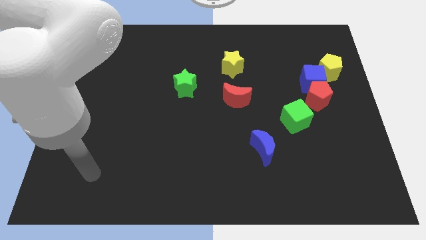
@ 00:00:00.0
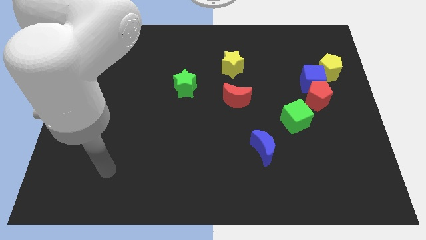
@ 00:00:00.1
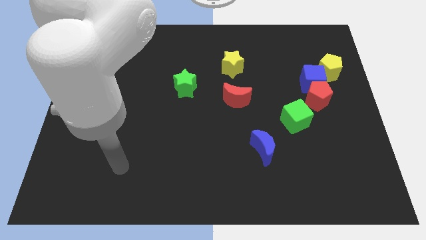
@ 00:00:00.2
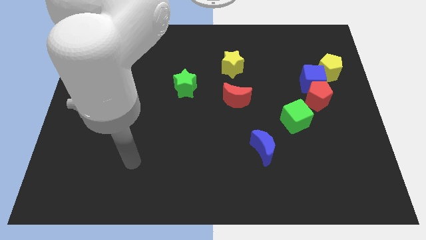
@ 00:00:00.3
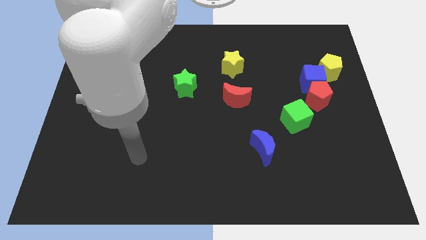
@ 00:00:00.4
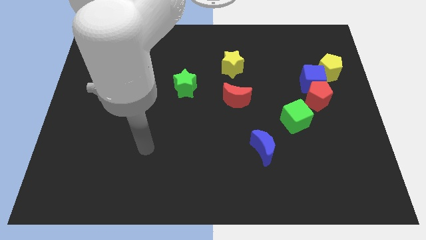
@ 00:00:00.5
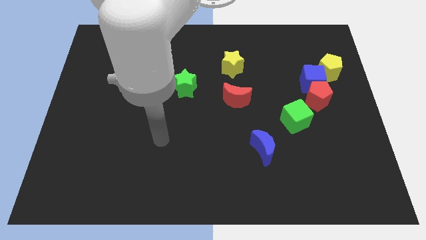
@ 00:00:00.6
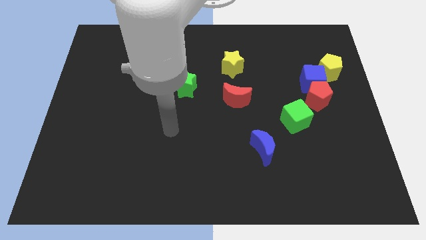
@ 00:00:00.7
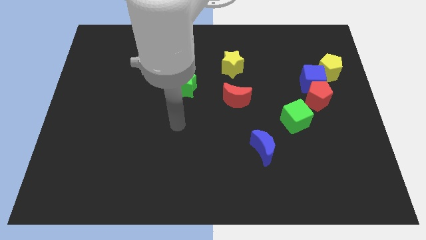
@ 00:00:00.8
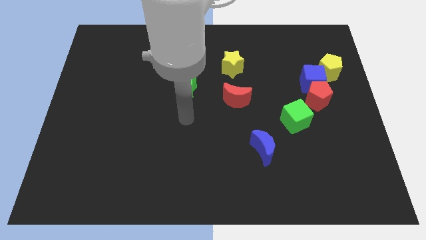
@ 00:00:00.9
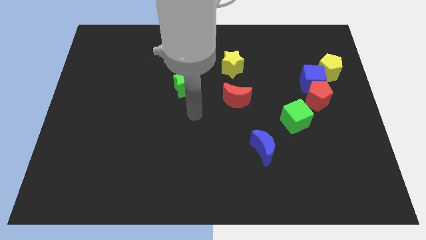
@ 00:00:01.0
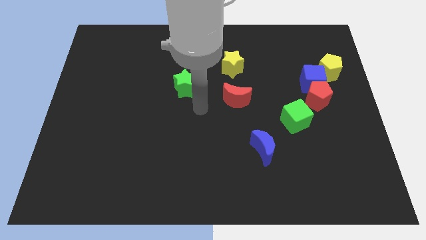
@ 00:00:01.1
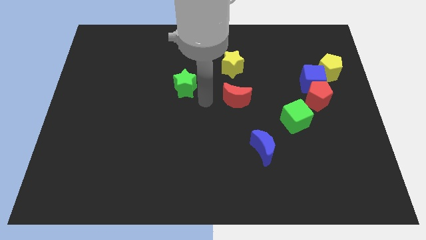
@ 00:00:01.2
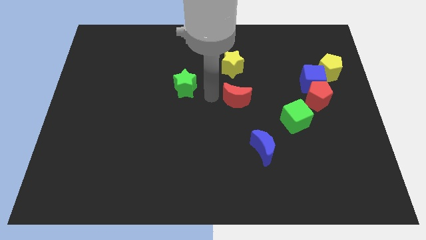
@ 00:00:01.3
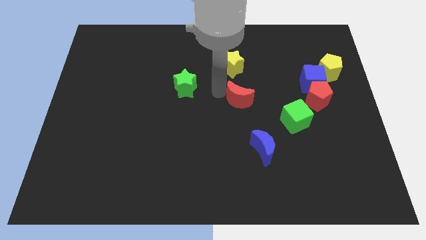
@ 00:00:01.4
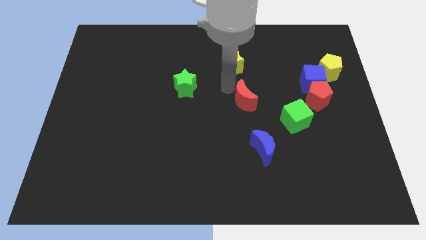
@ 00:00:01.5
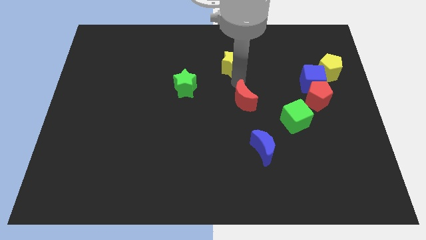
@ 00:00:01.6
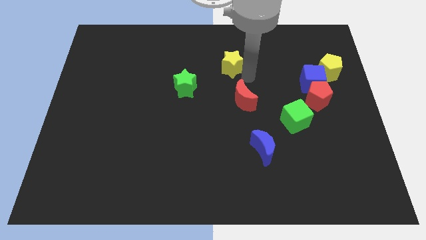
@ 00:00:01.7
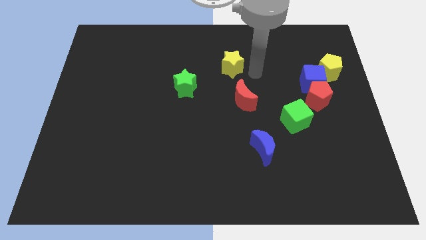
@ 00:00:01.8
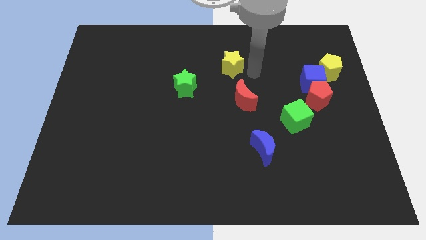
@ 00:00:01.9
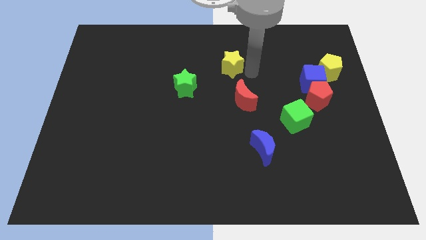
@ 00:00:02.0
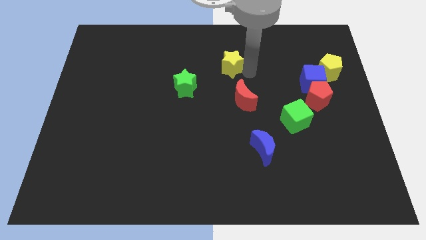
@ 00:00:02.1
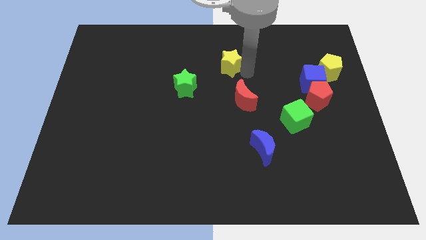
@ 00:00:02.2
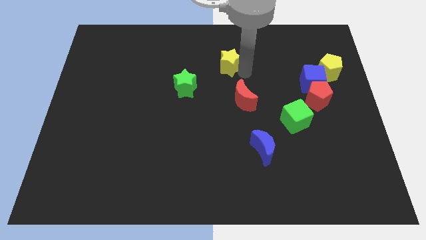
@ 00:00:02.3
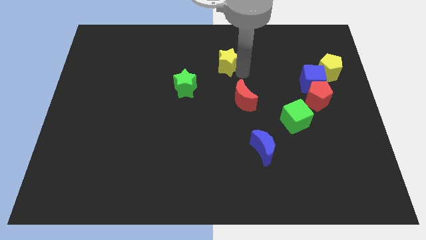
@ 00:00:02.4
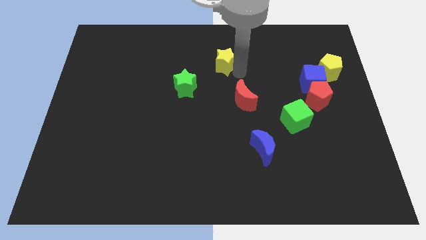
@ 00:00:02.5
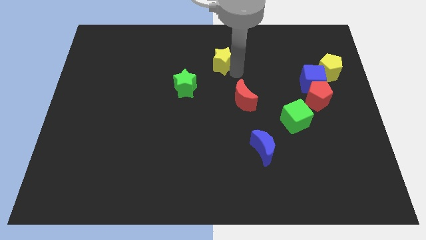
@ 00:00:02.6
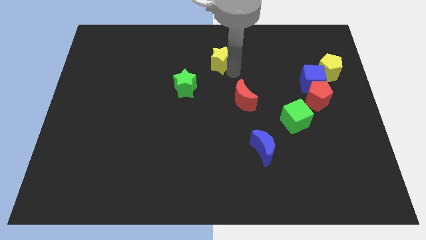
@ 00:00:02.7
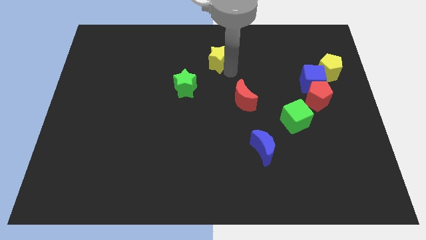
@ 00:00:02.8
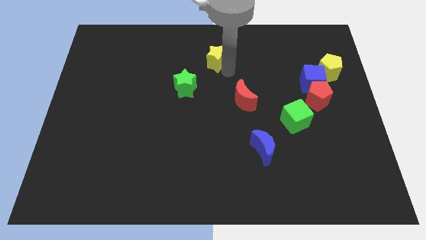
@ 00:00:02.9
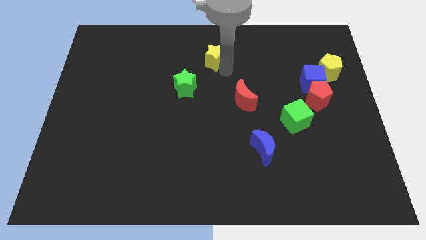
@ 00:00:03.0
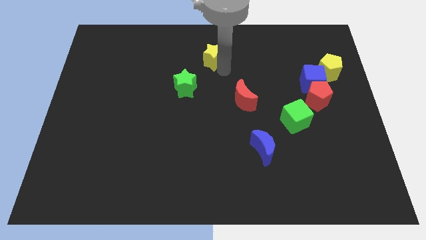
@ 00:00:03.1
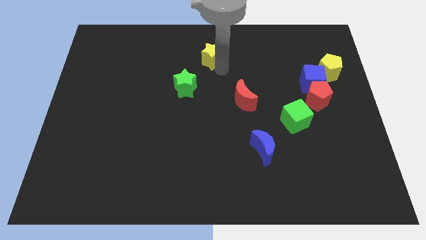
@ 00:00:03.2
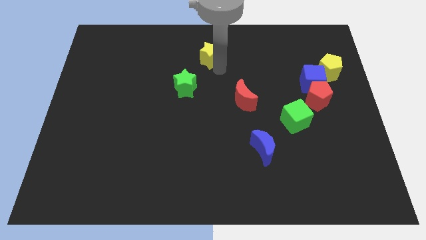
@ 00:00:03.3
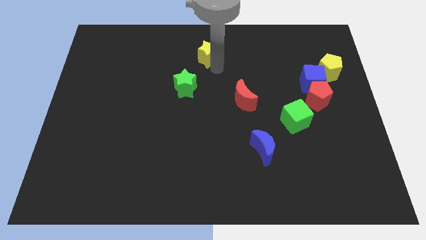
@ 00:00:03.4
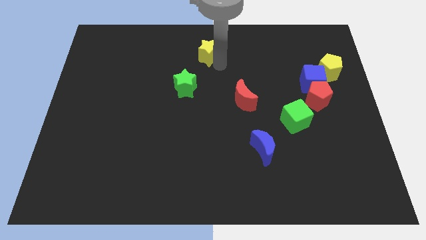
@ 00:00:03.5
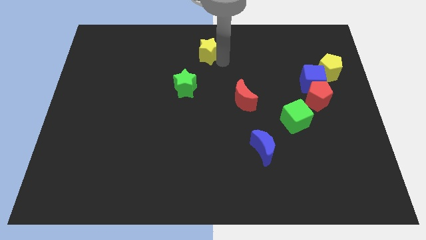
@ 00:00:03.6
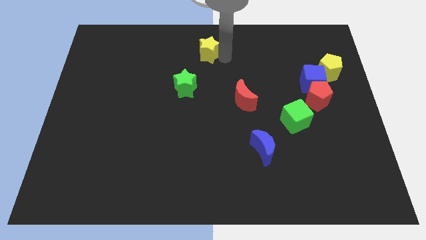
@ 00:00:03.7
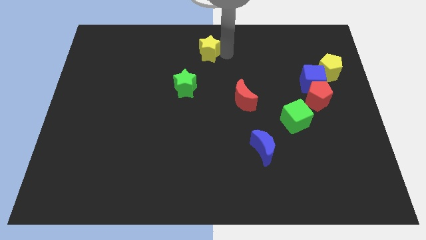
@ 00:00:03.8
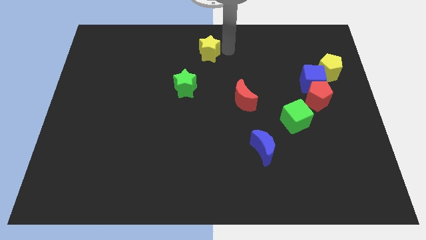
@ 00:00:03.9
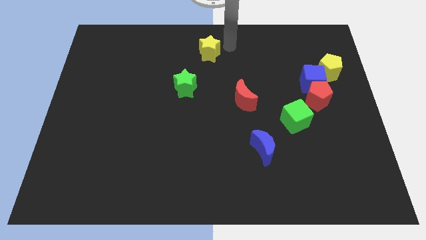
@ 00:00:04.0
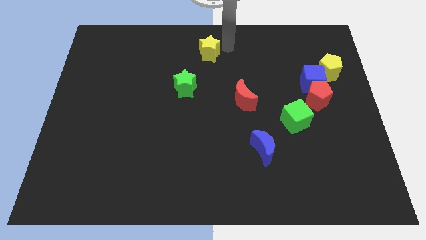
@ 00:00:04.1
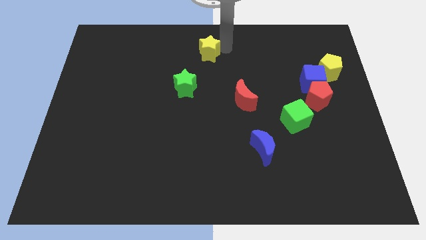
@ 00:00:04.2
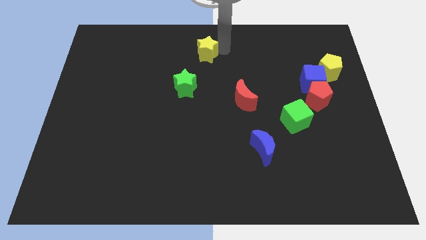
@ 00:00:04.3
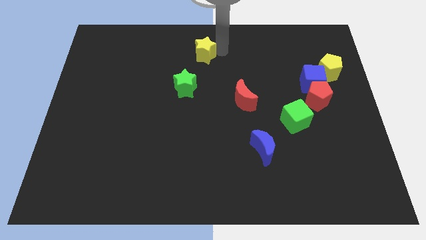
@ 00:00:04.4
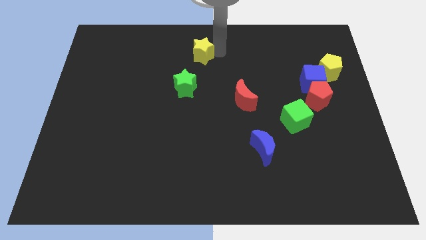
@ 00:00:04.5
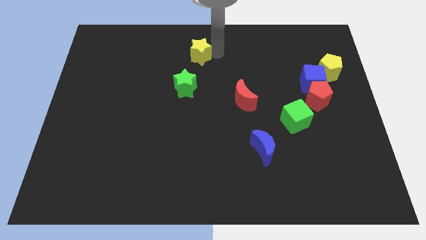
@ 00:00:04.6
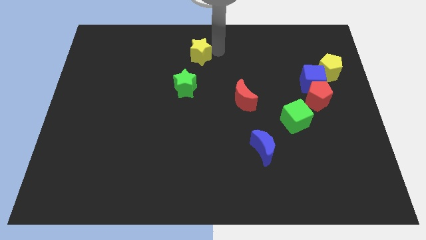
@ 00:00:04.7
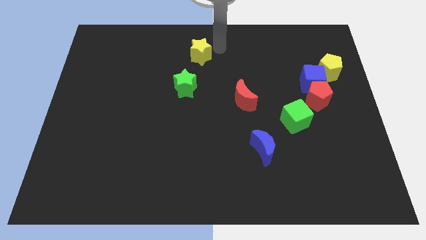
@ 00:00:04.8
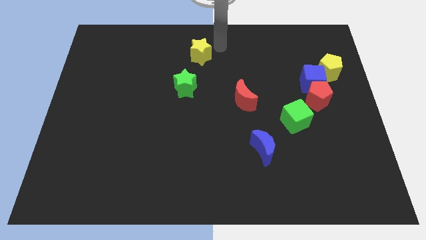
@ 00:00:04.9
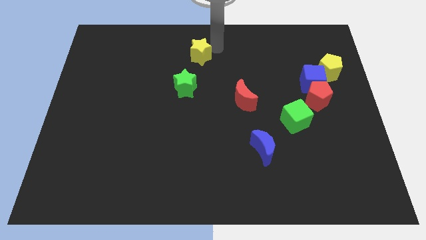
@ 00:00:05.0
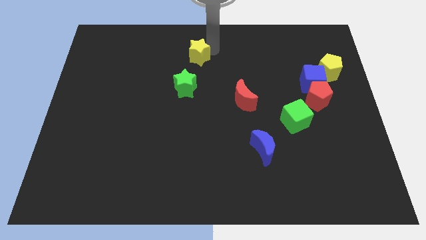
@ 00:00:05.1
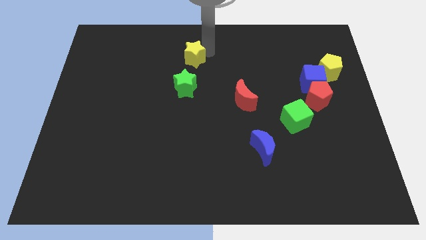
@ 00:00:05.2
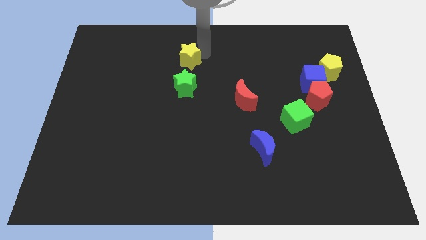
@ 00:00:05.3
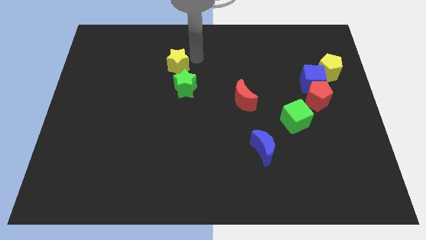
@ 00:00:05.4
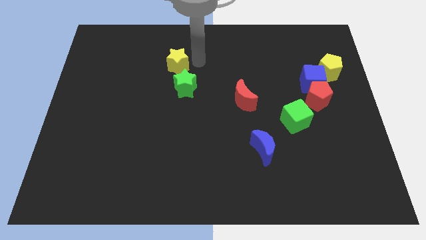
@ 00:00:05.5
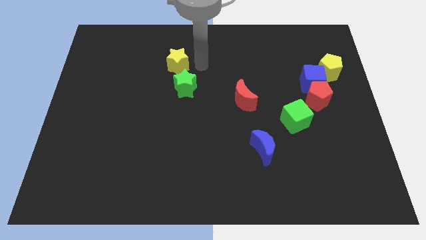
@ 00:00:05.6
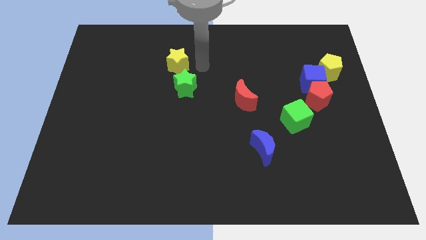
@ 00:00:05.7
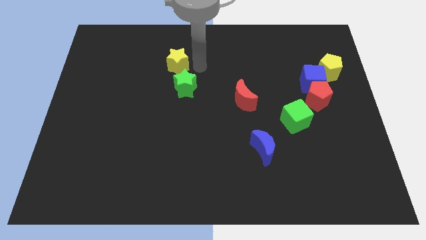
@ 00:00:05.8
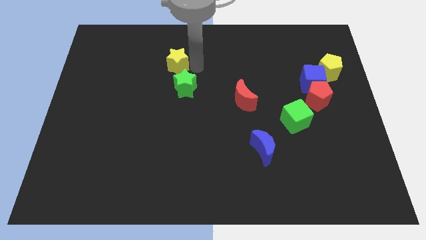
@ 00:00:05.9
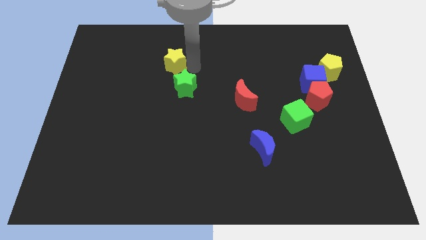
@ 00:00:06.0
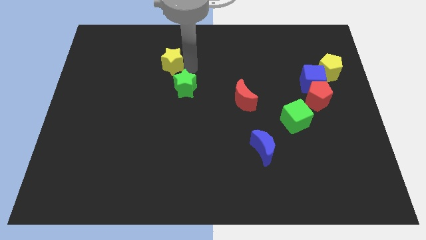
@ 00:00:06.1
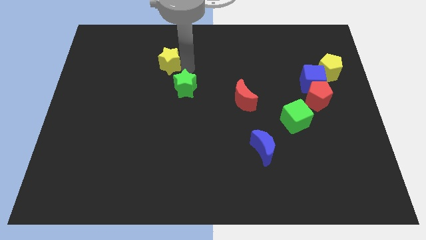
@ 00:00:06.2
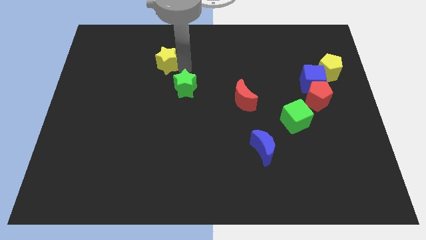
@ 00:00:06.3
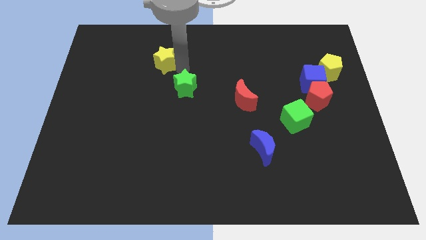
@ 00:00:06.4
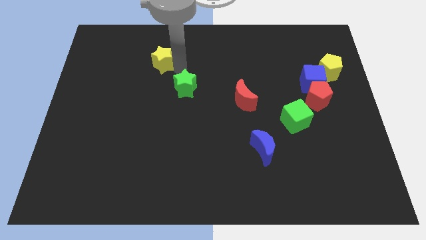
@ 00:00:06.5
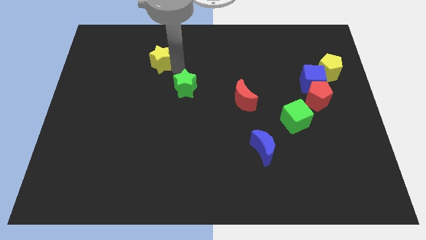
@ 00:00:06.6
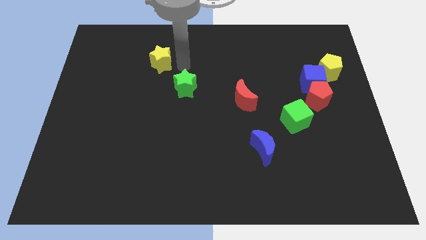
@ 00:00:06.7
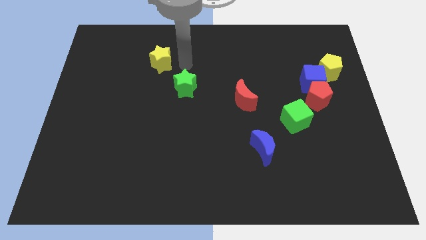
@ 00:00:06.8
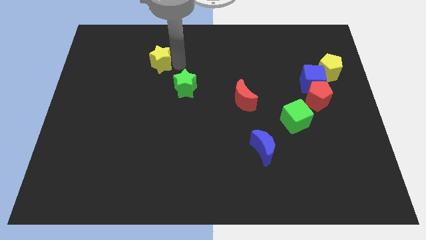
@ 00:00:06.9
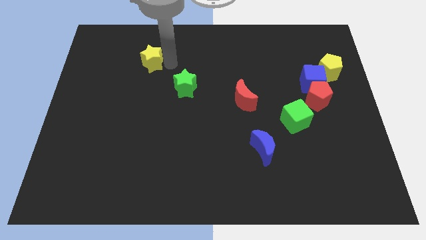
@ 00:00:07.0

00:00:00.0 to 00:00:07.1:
slide the yellow star to the left

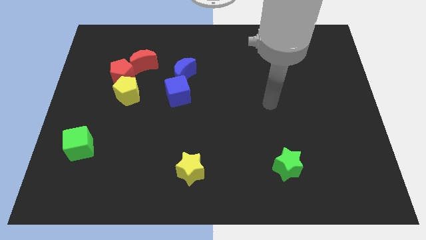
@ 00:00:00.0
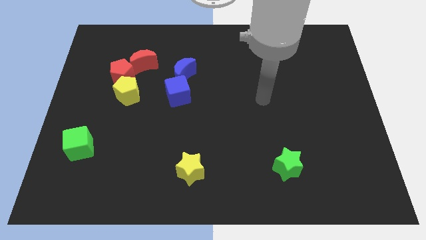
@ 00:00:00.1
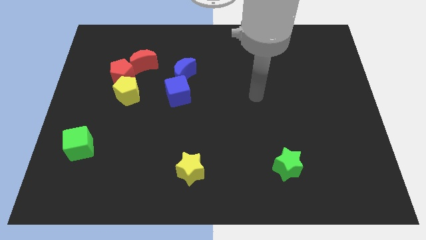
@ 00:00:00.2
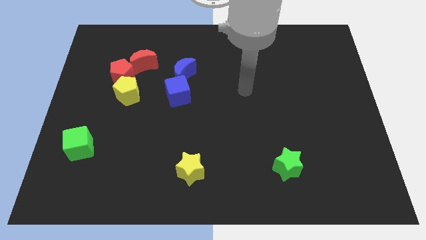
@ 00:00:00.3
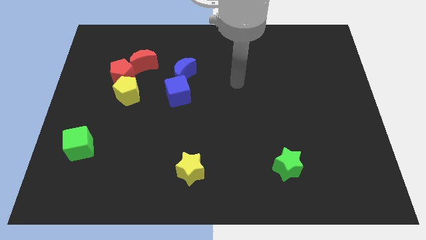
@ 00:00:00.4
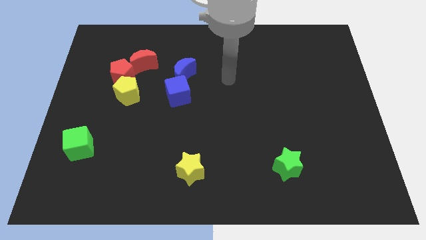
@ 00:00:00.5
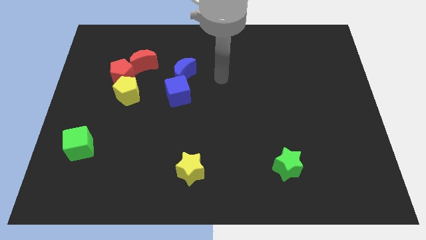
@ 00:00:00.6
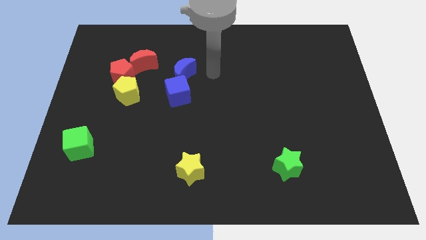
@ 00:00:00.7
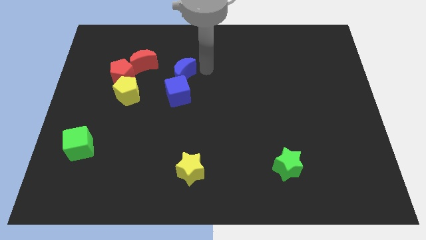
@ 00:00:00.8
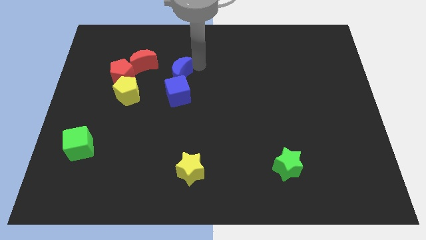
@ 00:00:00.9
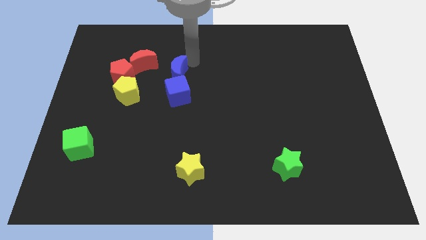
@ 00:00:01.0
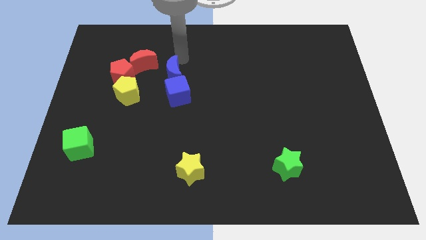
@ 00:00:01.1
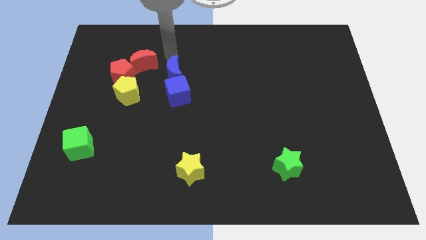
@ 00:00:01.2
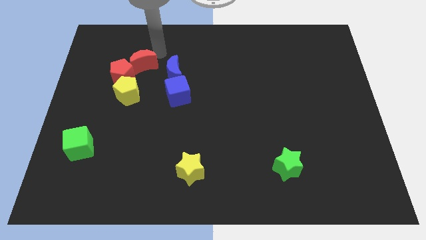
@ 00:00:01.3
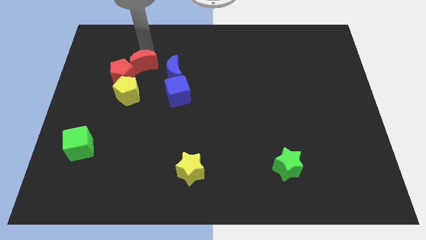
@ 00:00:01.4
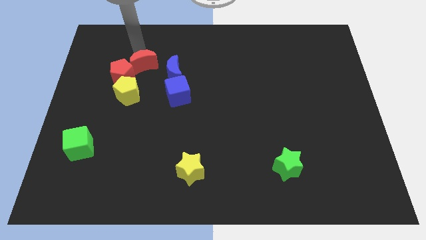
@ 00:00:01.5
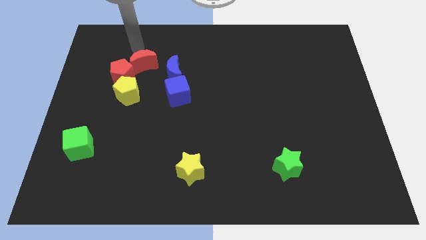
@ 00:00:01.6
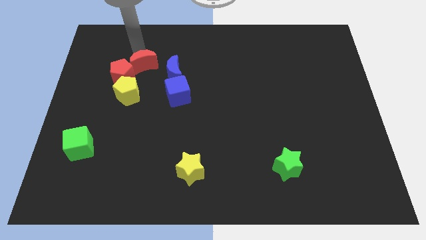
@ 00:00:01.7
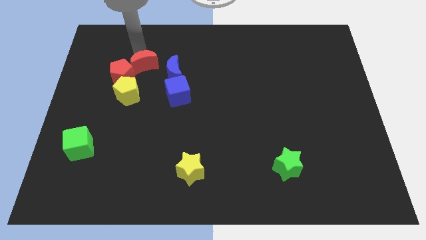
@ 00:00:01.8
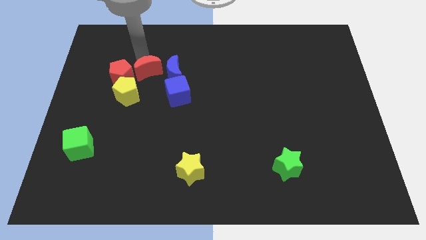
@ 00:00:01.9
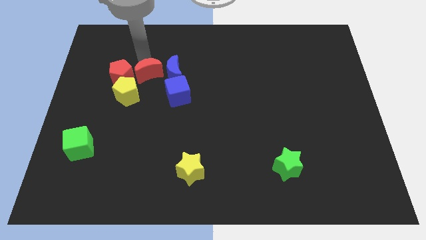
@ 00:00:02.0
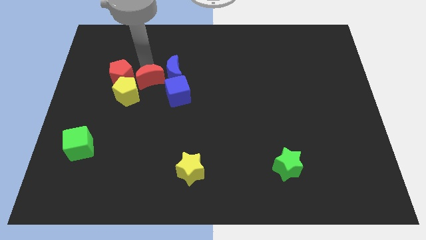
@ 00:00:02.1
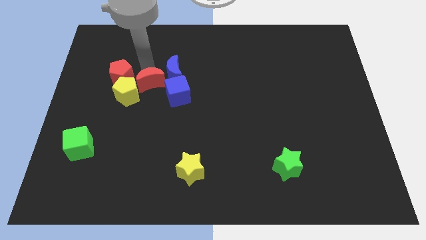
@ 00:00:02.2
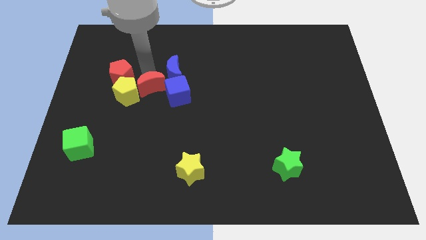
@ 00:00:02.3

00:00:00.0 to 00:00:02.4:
push the red moon a bit downwards and to the right
